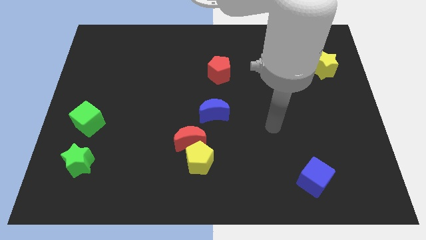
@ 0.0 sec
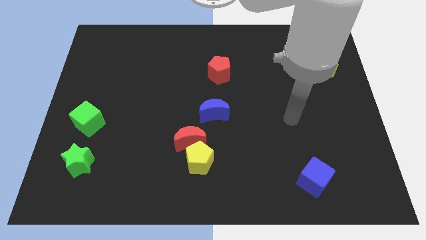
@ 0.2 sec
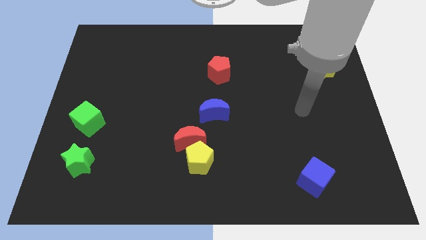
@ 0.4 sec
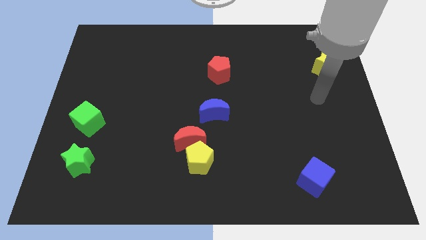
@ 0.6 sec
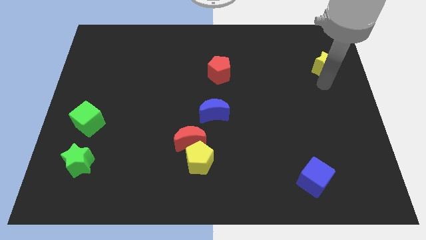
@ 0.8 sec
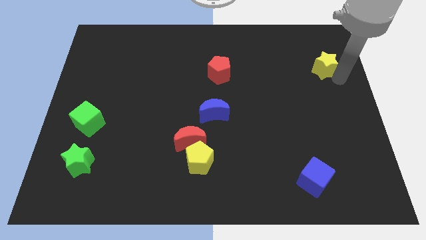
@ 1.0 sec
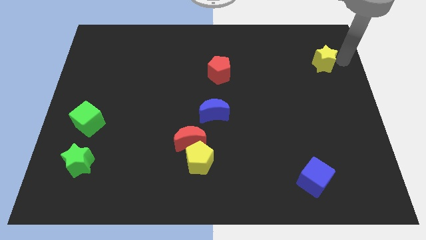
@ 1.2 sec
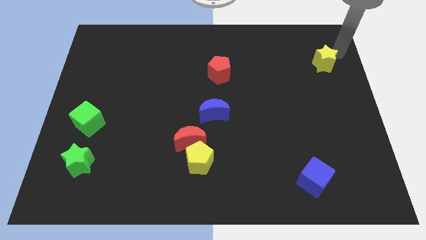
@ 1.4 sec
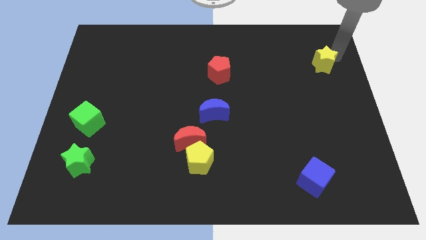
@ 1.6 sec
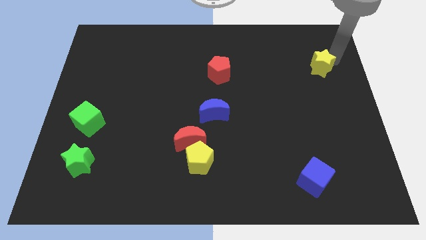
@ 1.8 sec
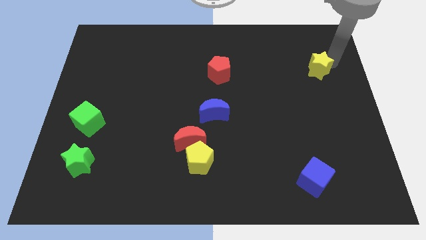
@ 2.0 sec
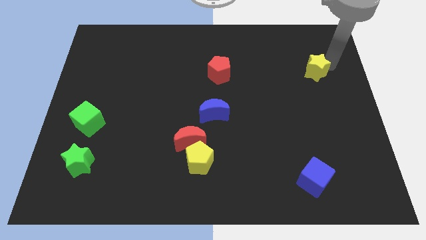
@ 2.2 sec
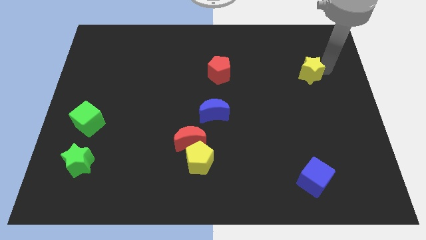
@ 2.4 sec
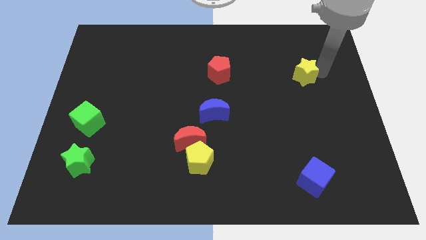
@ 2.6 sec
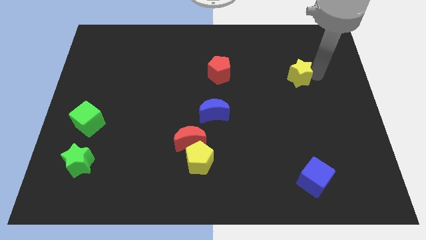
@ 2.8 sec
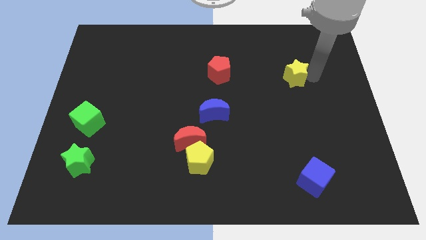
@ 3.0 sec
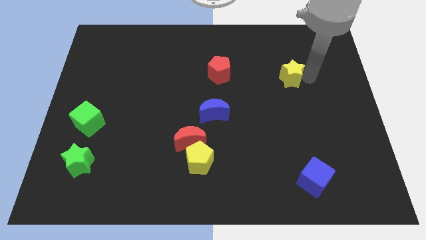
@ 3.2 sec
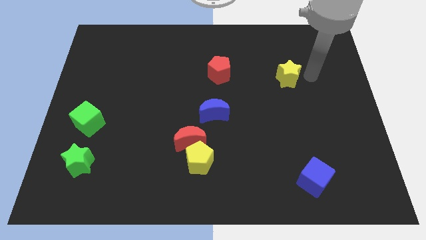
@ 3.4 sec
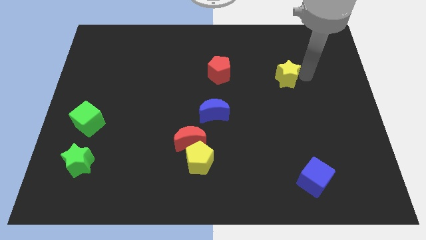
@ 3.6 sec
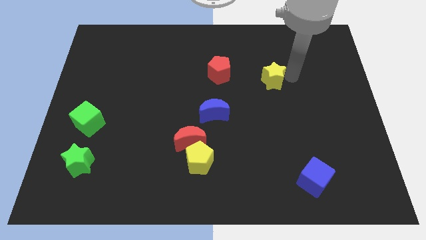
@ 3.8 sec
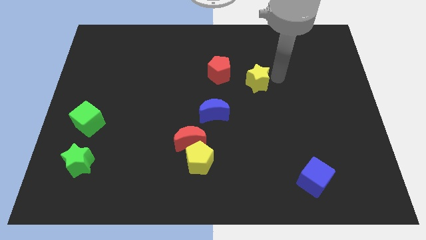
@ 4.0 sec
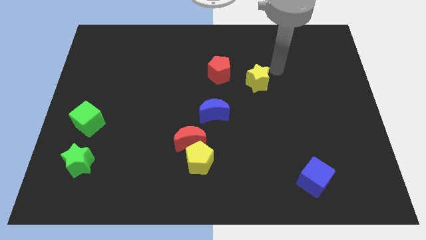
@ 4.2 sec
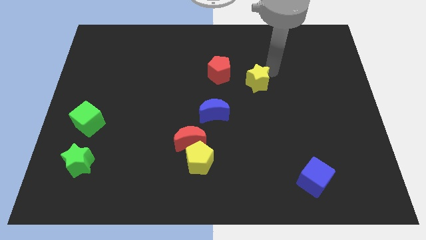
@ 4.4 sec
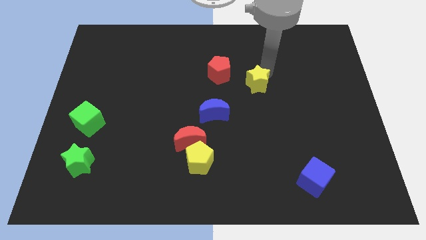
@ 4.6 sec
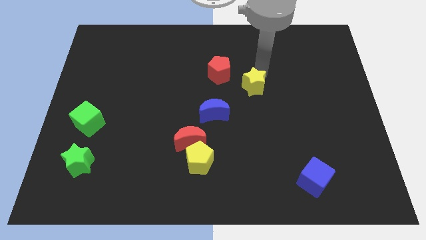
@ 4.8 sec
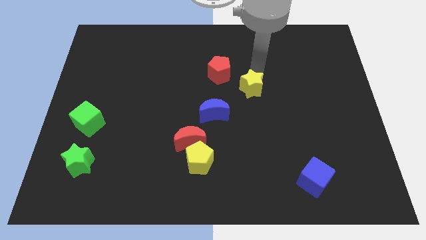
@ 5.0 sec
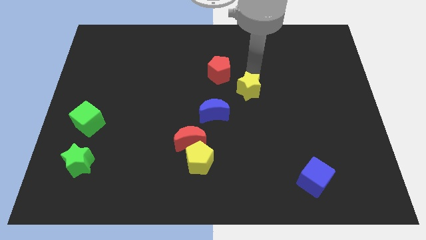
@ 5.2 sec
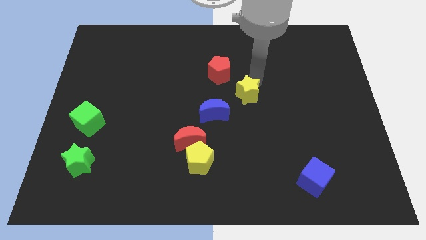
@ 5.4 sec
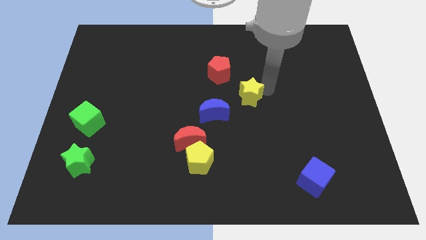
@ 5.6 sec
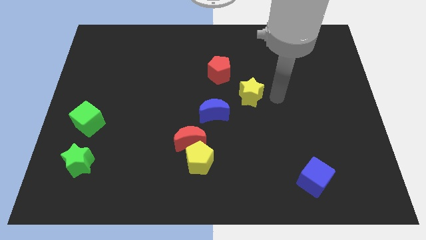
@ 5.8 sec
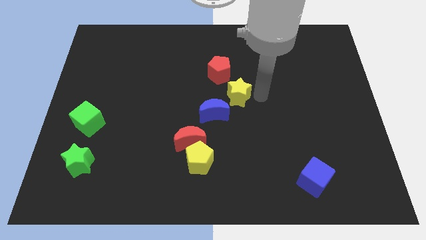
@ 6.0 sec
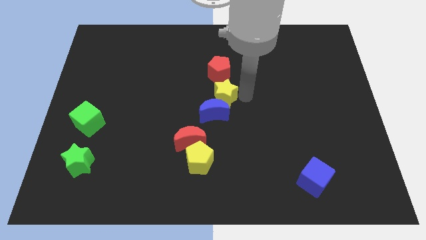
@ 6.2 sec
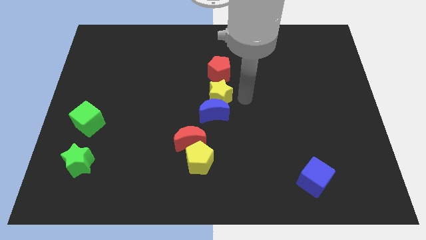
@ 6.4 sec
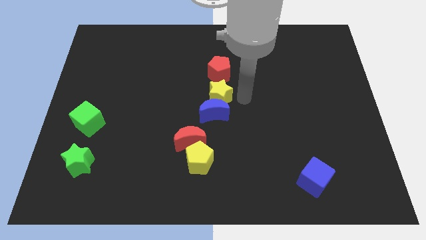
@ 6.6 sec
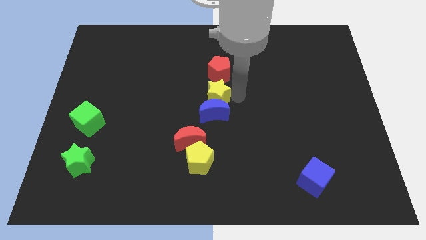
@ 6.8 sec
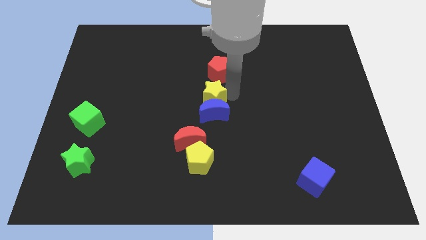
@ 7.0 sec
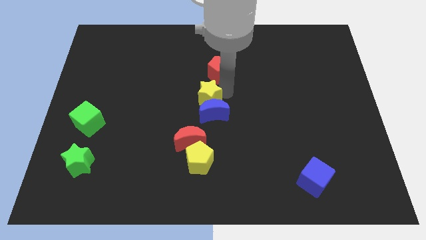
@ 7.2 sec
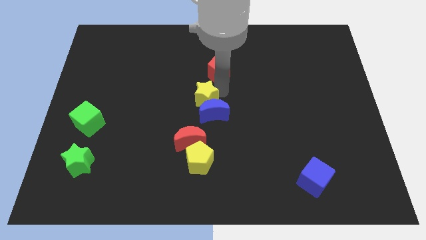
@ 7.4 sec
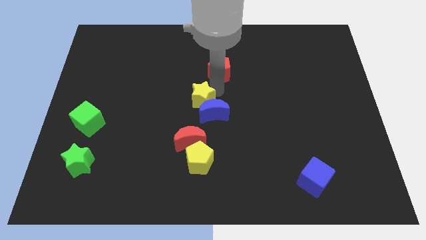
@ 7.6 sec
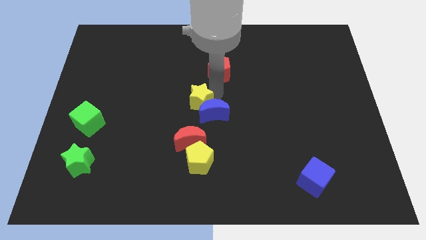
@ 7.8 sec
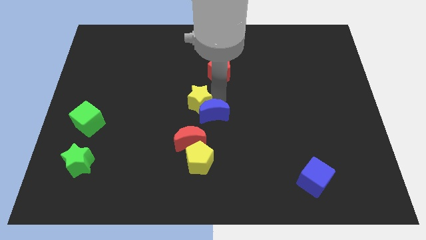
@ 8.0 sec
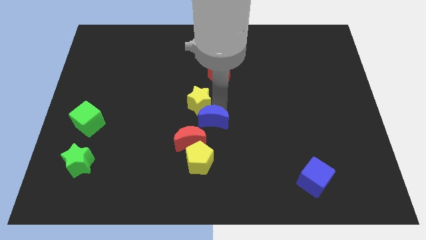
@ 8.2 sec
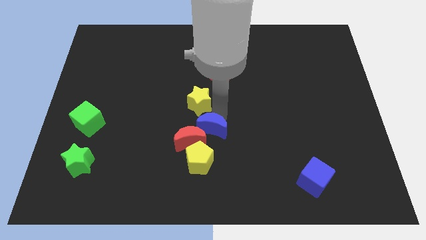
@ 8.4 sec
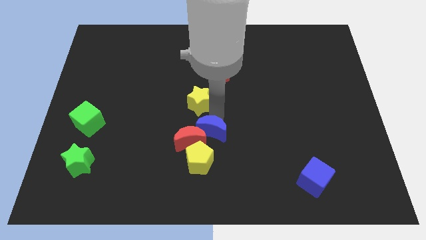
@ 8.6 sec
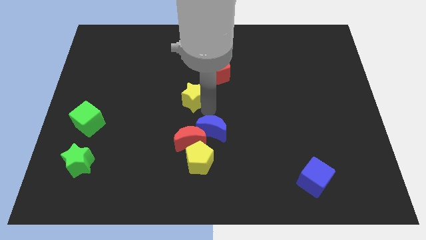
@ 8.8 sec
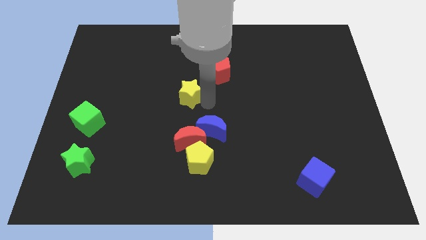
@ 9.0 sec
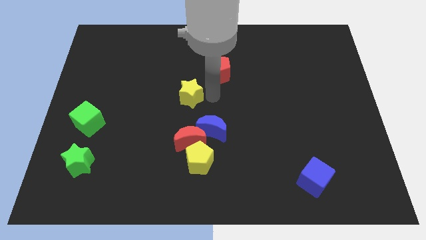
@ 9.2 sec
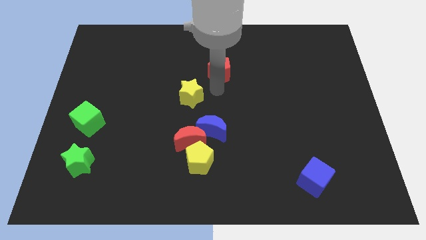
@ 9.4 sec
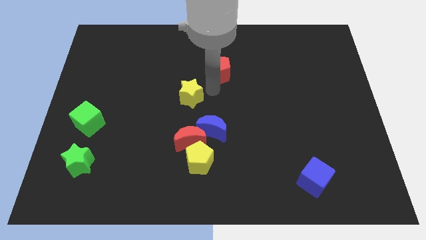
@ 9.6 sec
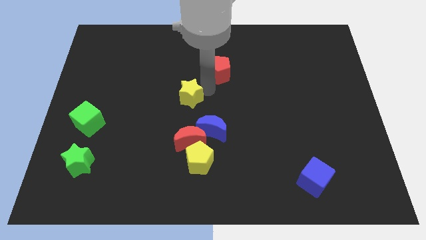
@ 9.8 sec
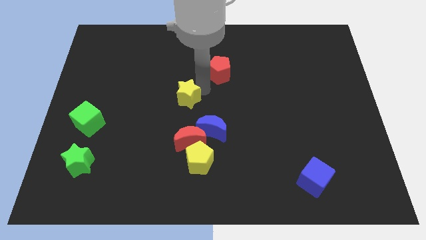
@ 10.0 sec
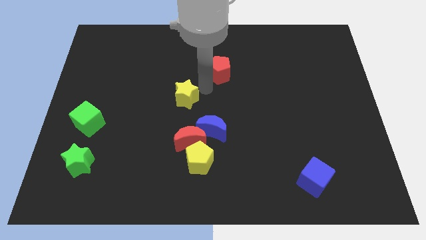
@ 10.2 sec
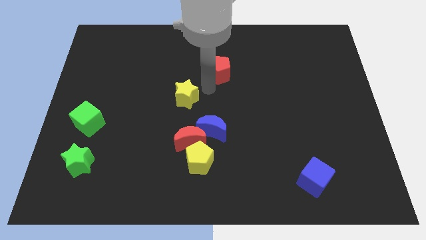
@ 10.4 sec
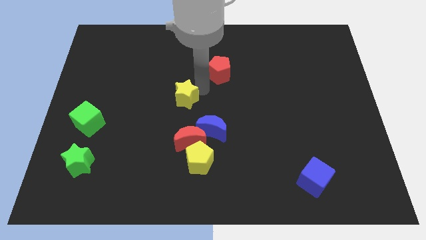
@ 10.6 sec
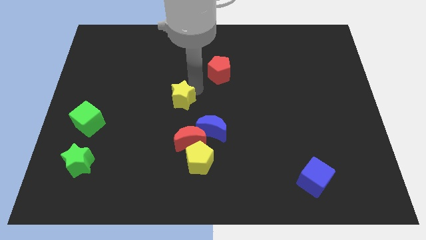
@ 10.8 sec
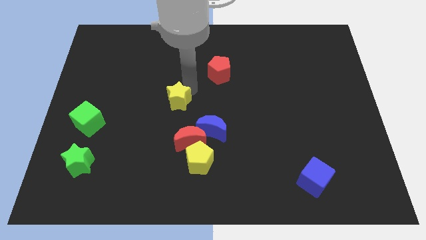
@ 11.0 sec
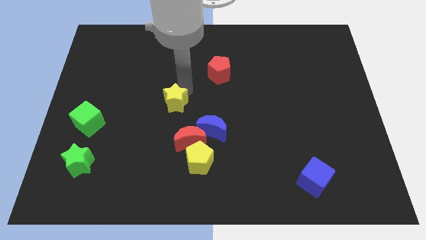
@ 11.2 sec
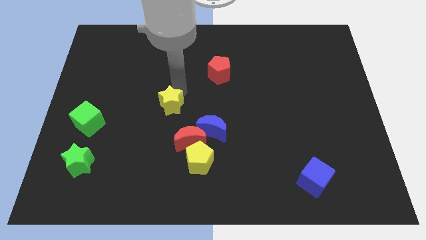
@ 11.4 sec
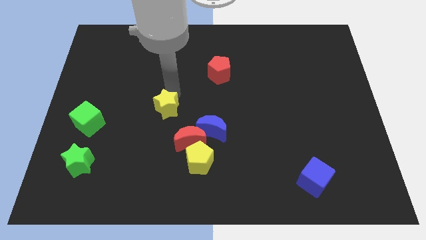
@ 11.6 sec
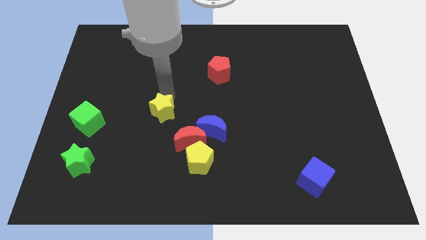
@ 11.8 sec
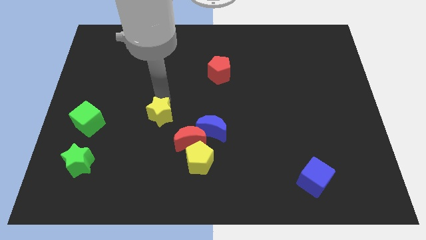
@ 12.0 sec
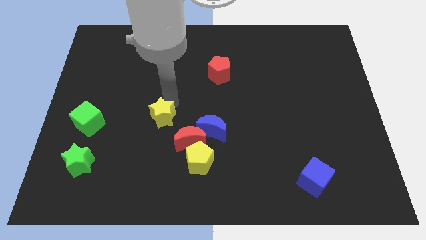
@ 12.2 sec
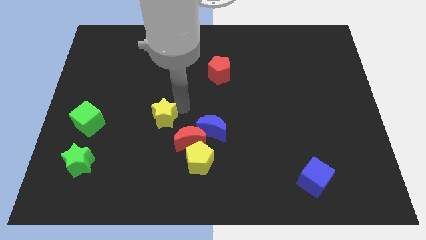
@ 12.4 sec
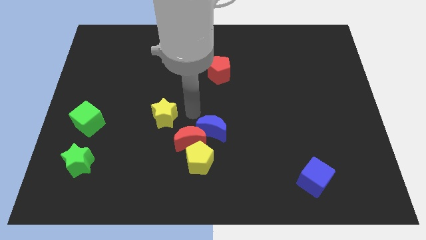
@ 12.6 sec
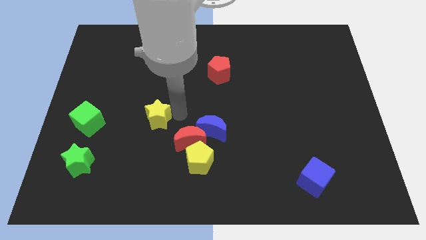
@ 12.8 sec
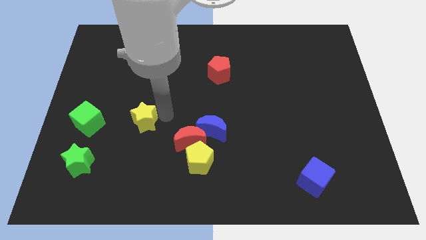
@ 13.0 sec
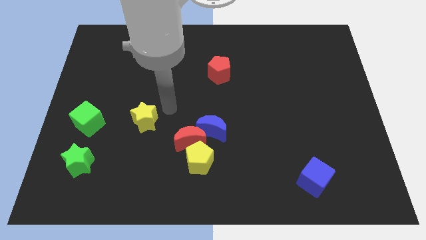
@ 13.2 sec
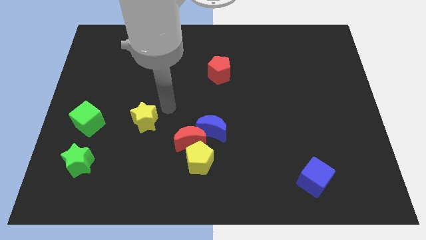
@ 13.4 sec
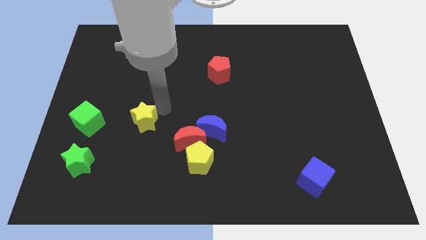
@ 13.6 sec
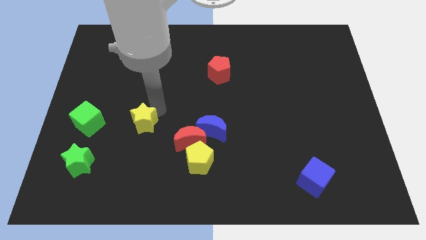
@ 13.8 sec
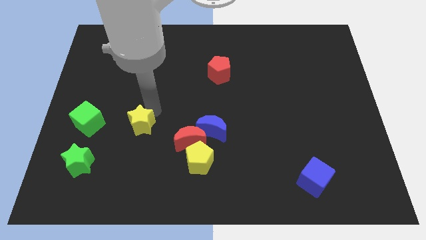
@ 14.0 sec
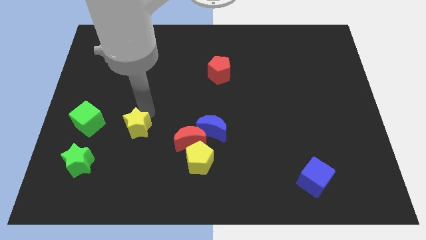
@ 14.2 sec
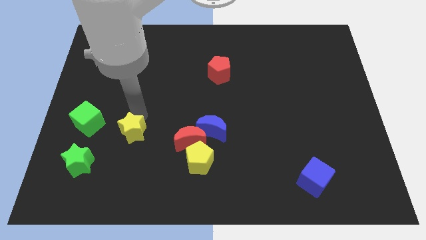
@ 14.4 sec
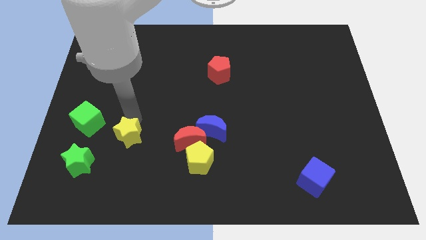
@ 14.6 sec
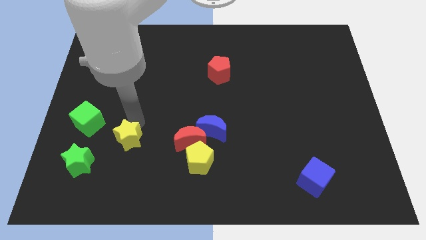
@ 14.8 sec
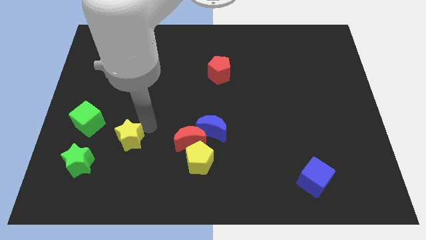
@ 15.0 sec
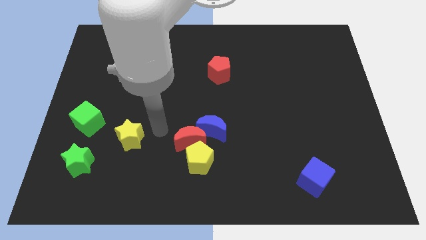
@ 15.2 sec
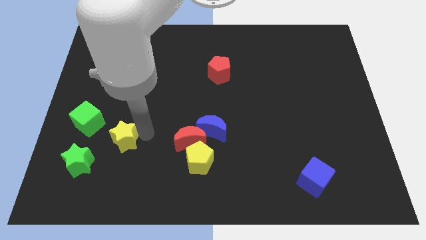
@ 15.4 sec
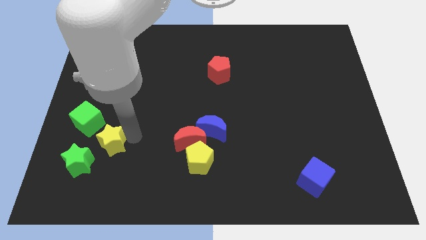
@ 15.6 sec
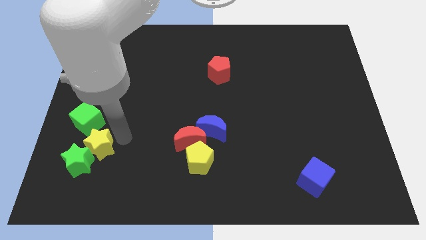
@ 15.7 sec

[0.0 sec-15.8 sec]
push the yellow star close to the green star
